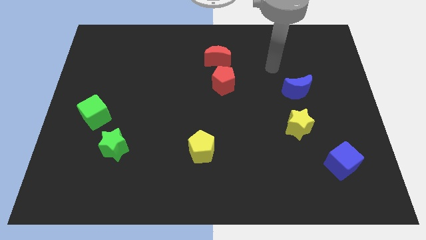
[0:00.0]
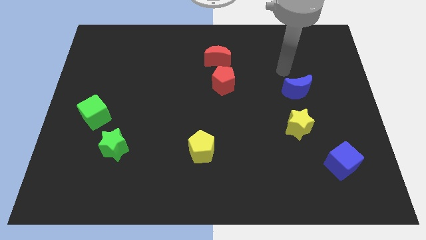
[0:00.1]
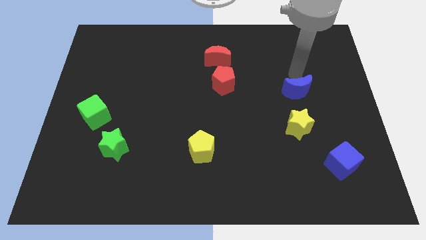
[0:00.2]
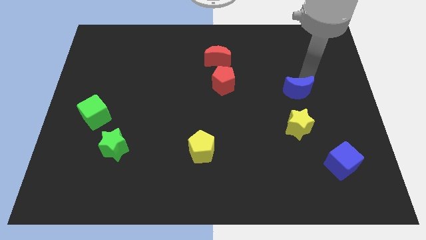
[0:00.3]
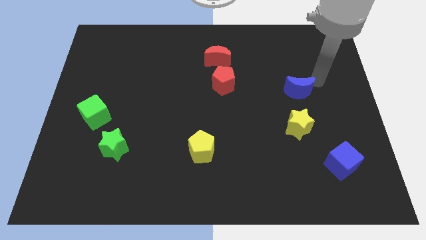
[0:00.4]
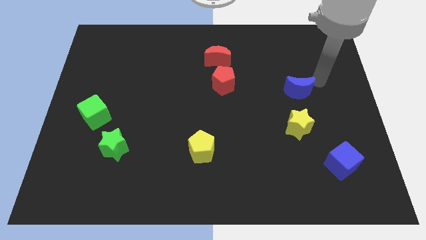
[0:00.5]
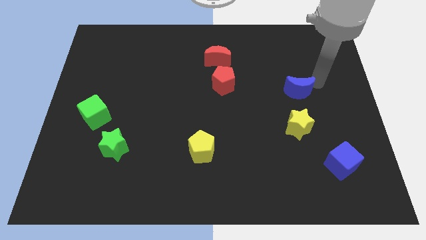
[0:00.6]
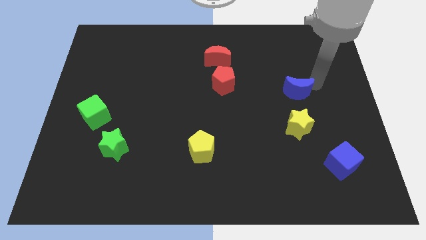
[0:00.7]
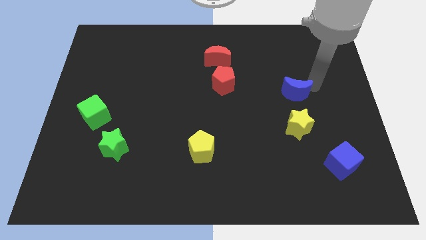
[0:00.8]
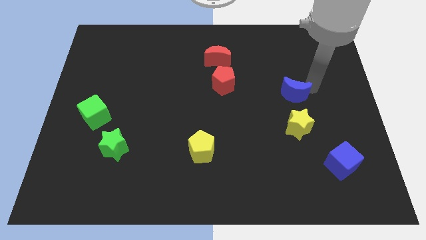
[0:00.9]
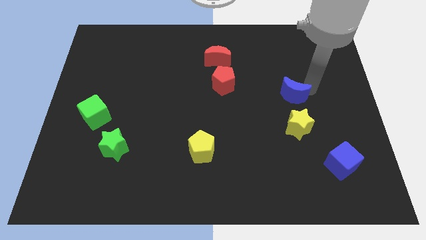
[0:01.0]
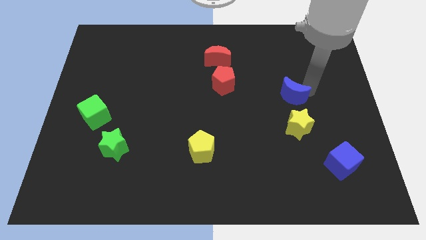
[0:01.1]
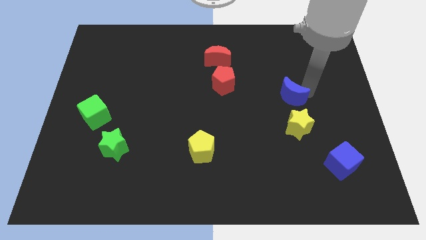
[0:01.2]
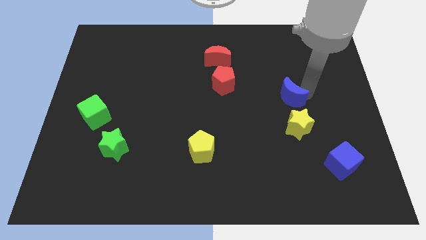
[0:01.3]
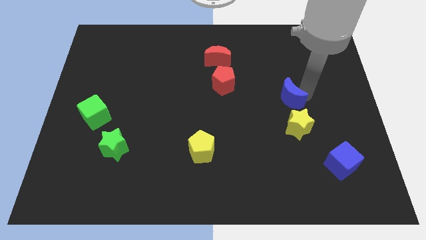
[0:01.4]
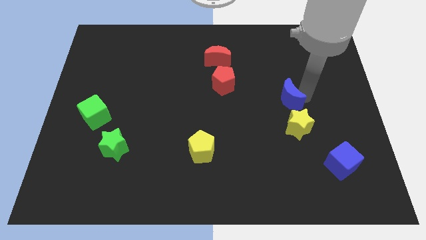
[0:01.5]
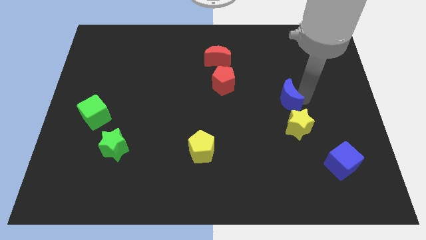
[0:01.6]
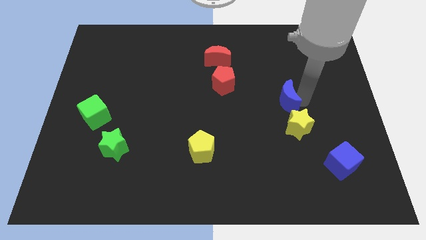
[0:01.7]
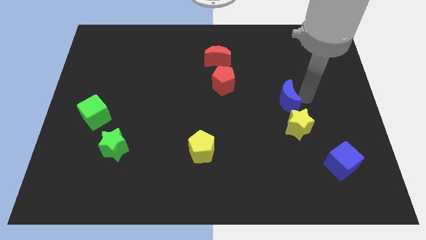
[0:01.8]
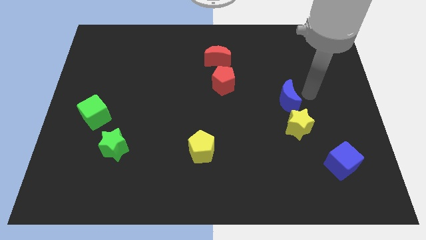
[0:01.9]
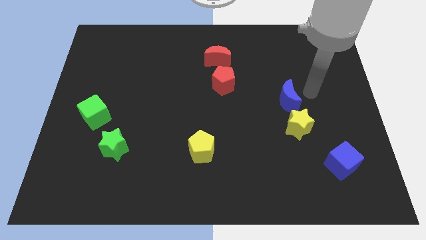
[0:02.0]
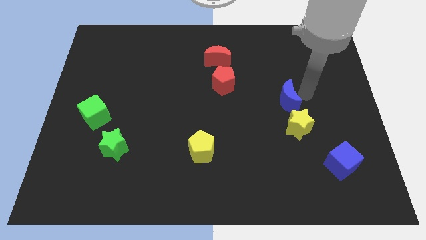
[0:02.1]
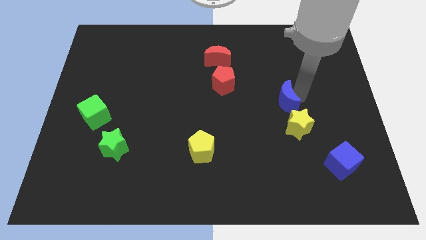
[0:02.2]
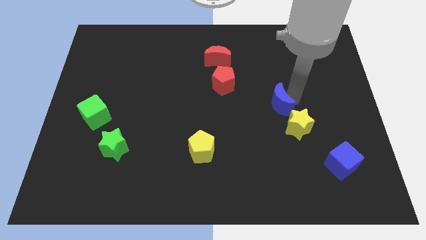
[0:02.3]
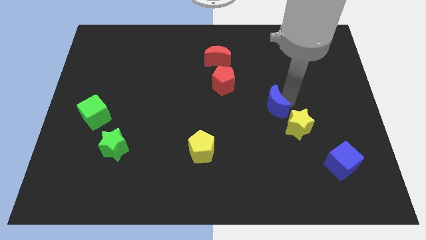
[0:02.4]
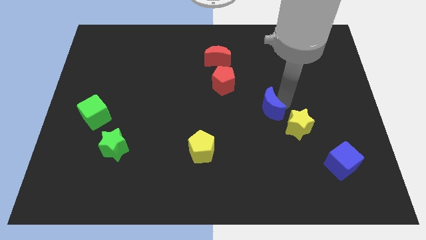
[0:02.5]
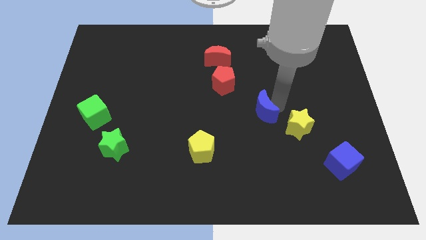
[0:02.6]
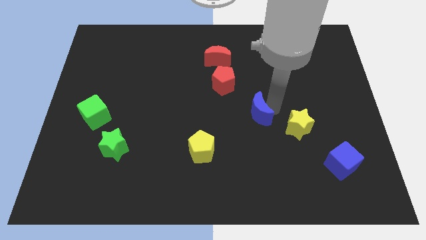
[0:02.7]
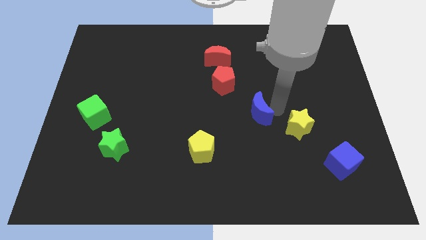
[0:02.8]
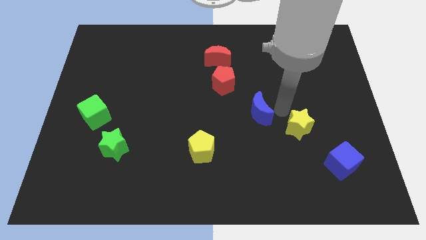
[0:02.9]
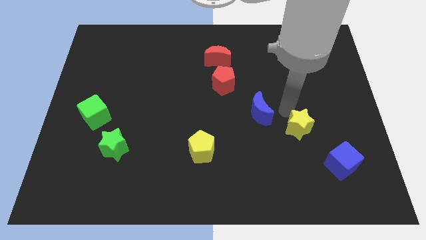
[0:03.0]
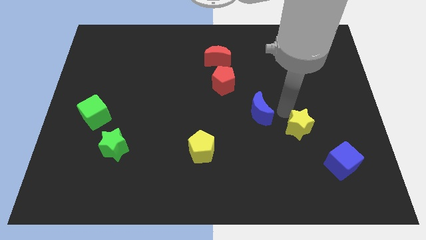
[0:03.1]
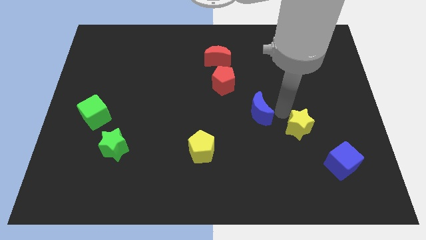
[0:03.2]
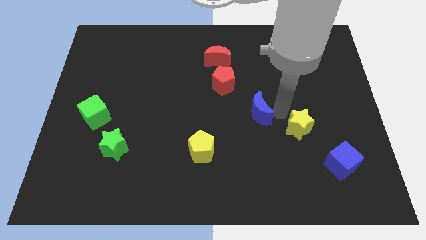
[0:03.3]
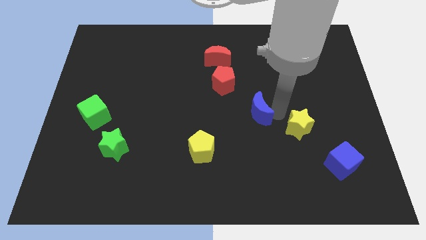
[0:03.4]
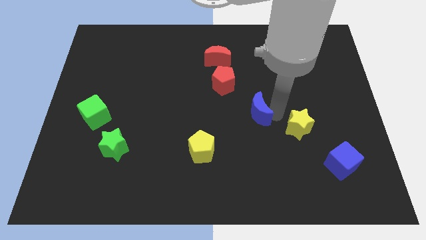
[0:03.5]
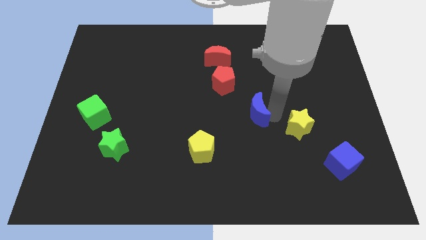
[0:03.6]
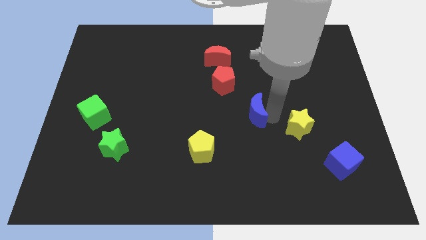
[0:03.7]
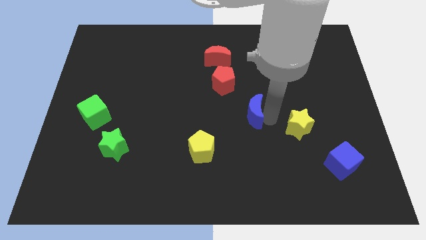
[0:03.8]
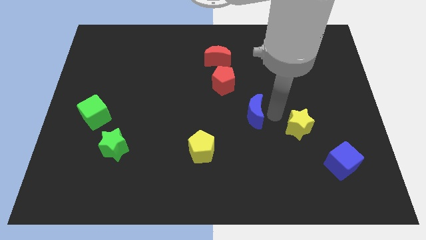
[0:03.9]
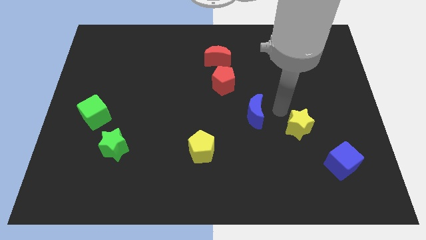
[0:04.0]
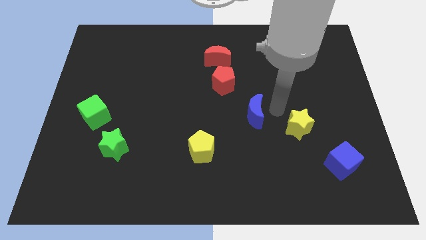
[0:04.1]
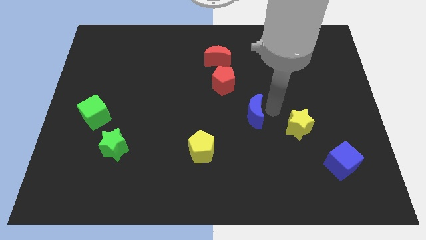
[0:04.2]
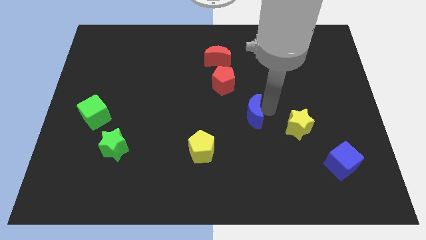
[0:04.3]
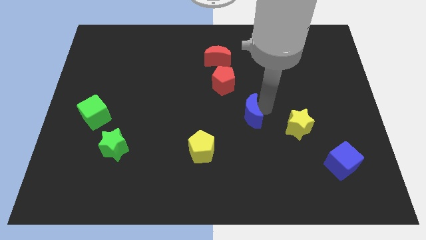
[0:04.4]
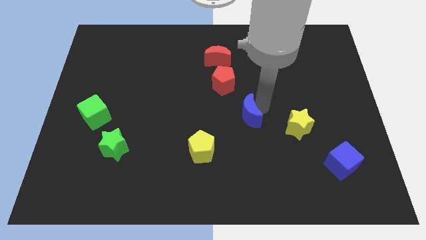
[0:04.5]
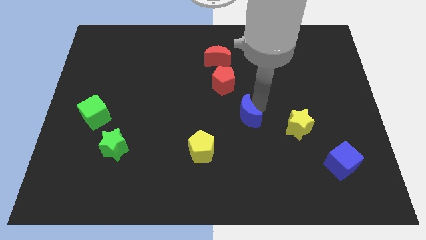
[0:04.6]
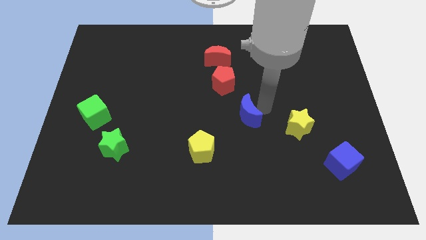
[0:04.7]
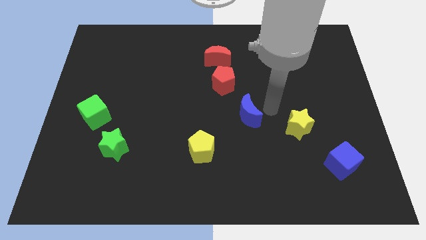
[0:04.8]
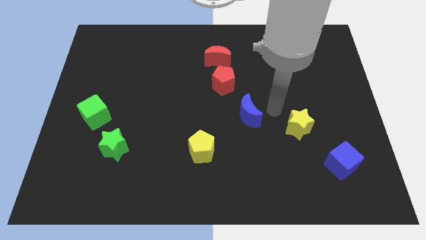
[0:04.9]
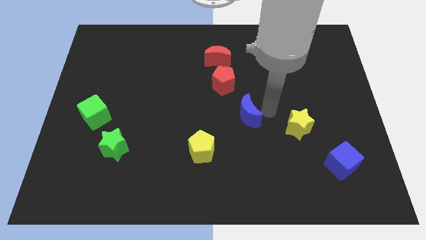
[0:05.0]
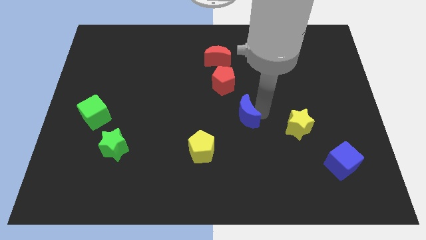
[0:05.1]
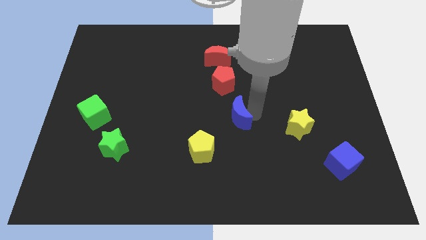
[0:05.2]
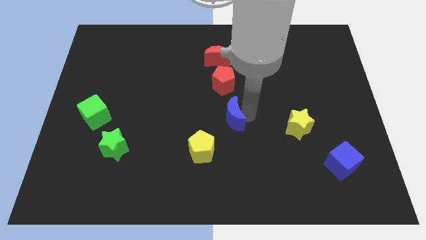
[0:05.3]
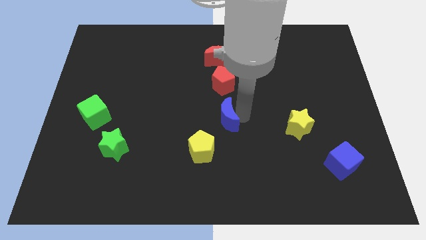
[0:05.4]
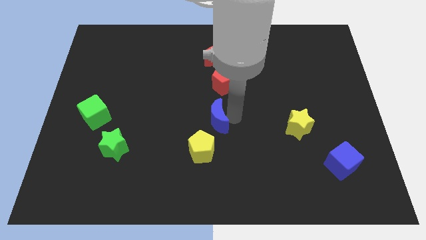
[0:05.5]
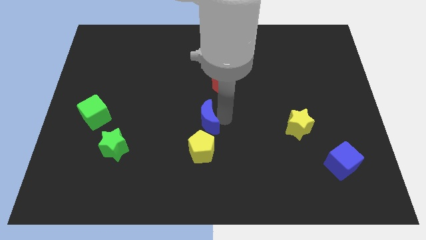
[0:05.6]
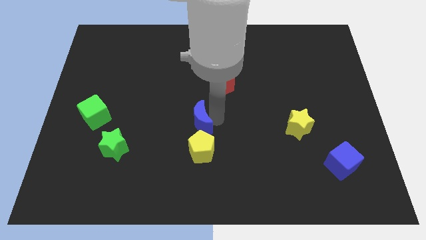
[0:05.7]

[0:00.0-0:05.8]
push the blue moon diagonally up and to the left of the yellow pentagon

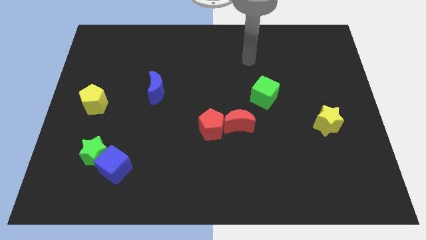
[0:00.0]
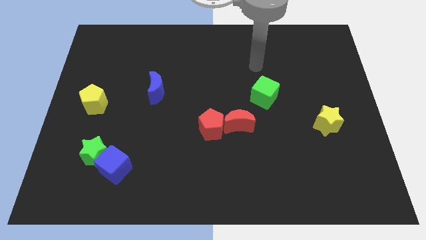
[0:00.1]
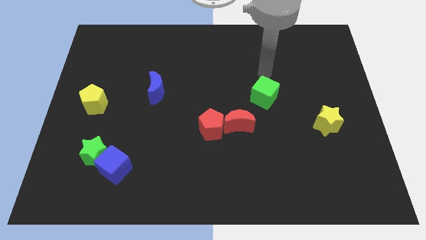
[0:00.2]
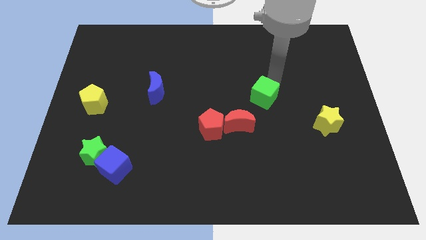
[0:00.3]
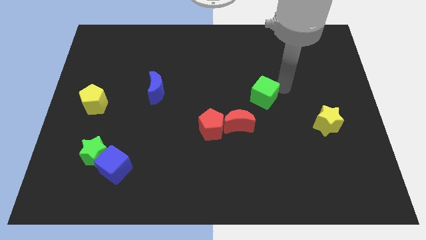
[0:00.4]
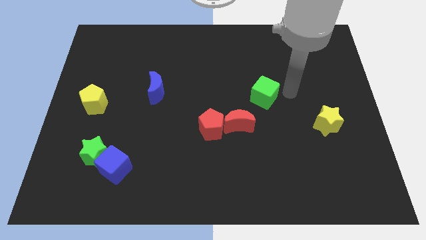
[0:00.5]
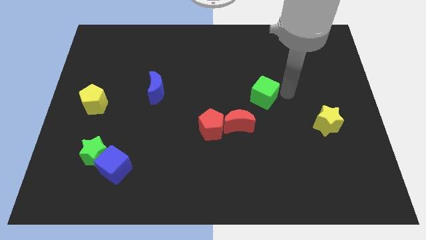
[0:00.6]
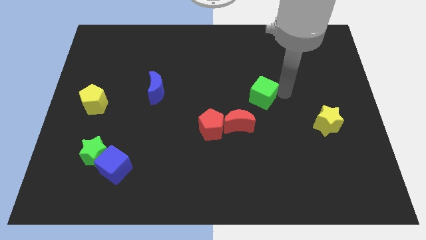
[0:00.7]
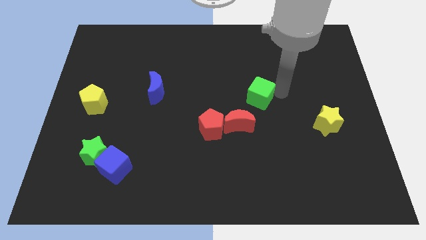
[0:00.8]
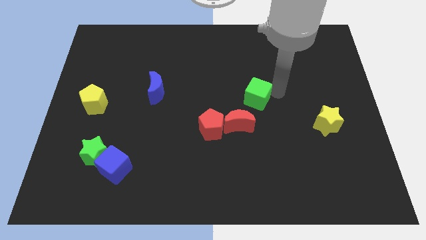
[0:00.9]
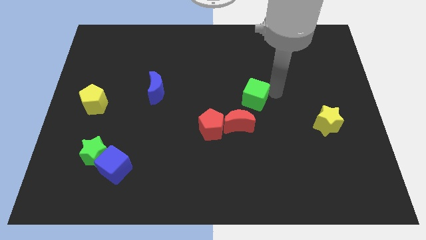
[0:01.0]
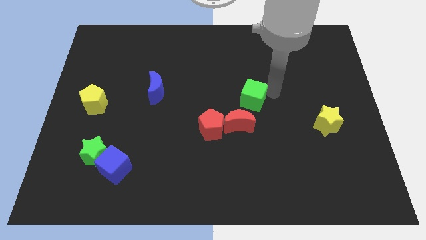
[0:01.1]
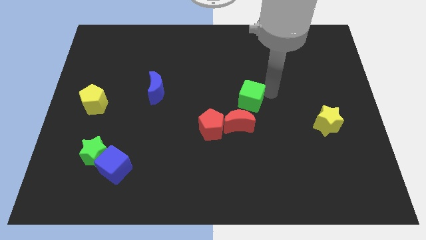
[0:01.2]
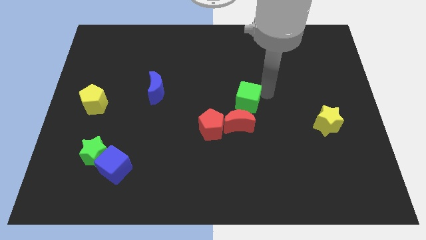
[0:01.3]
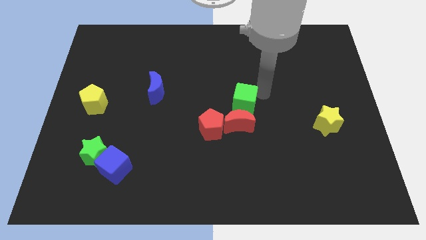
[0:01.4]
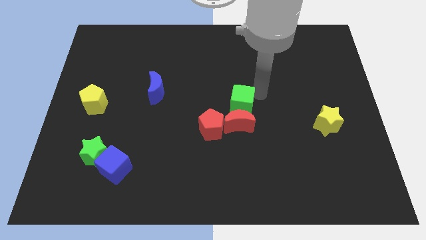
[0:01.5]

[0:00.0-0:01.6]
push the green cube diagonally up and to the left of the red moon
